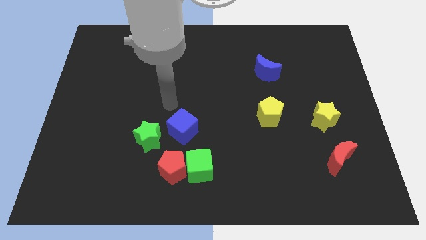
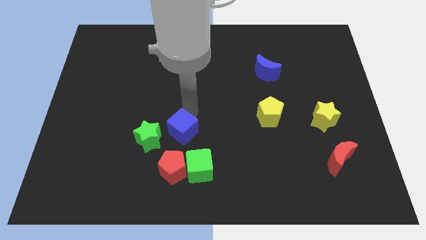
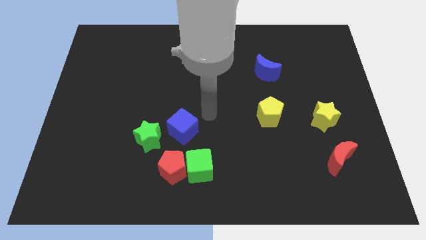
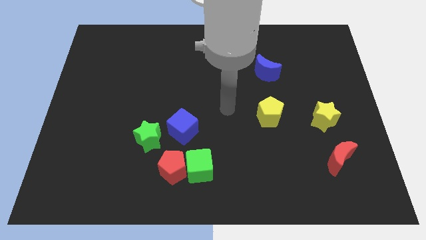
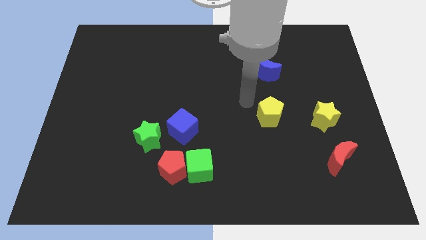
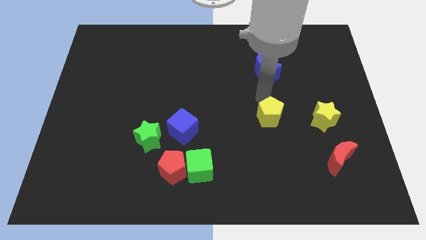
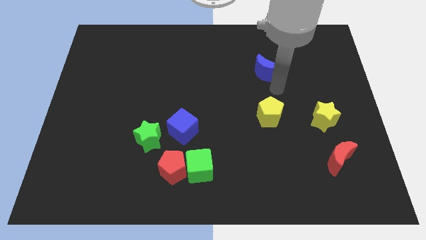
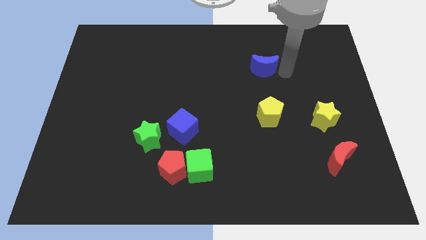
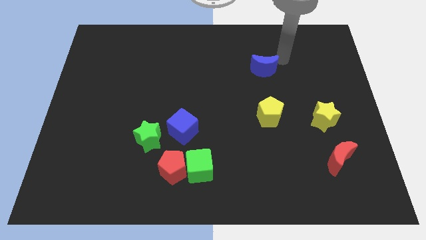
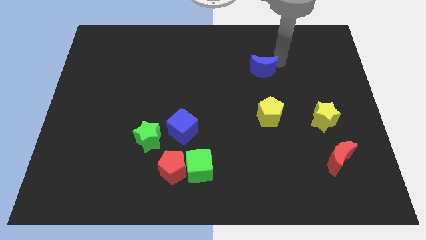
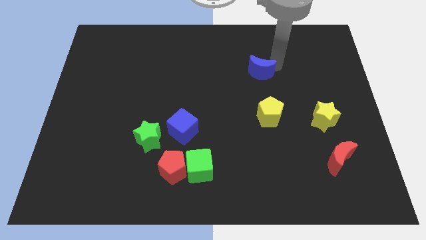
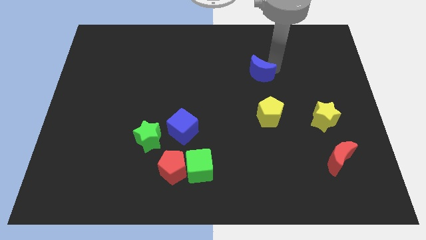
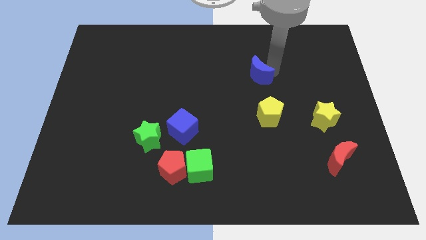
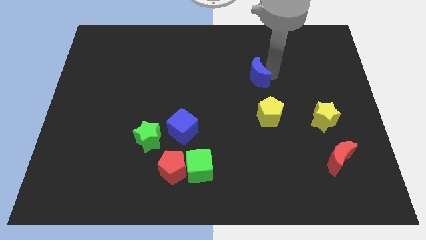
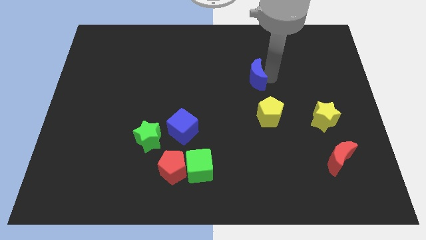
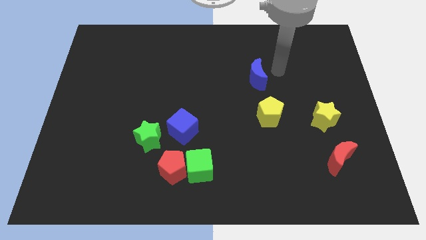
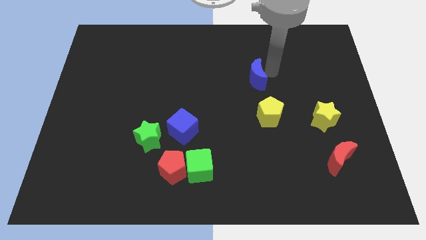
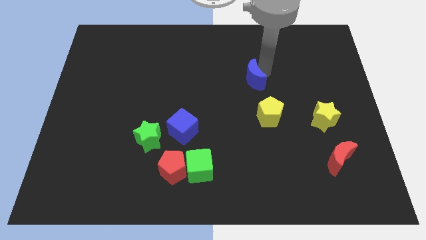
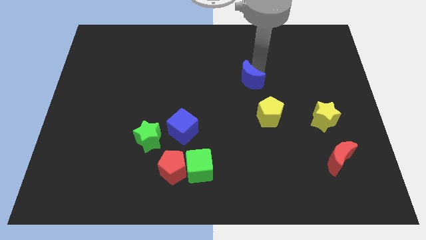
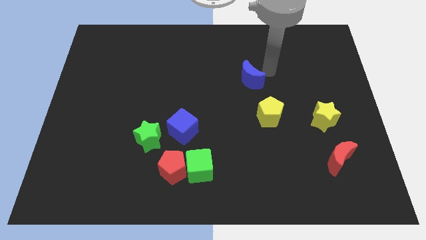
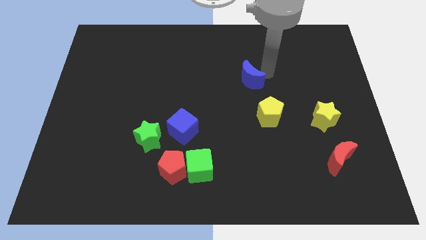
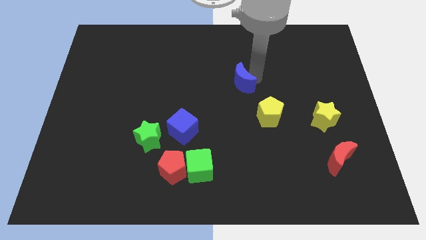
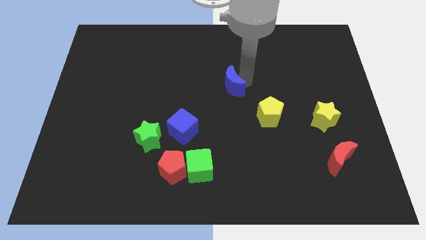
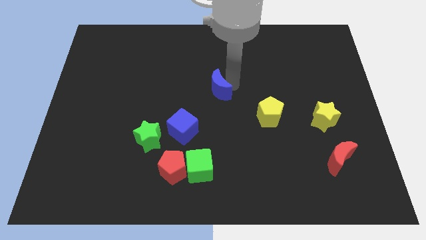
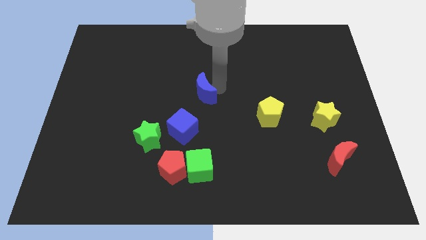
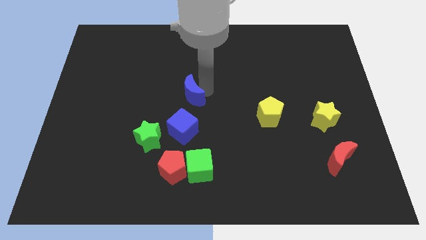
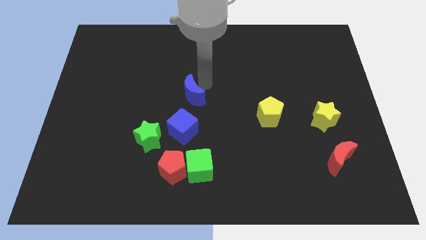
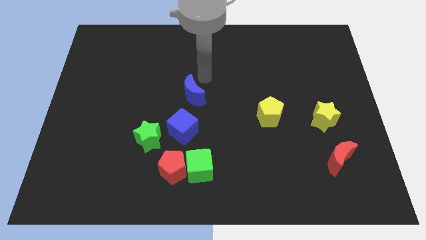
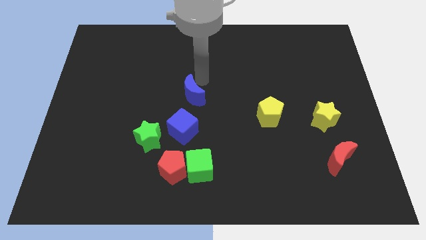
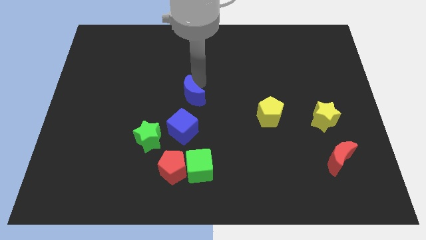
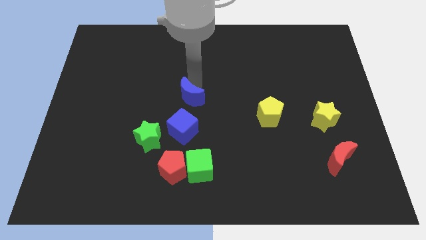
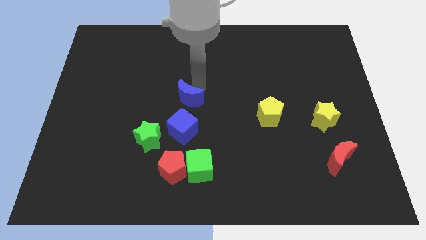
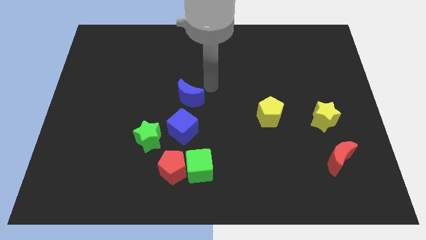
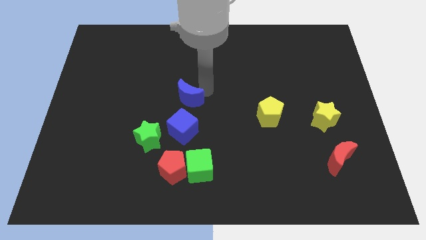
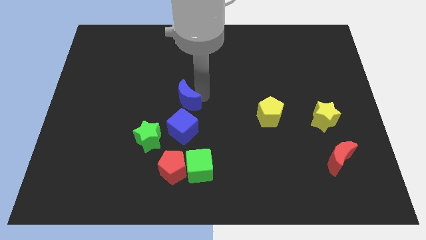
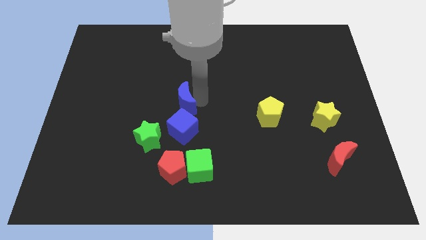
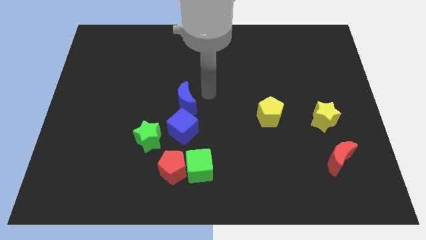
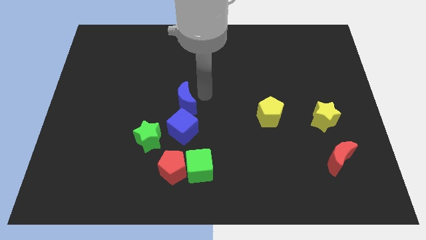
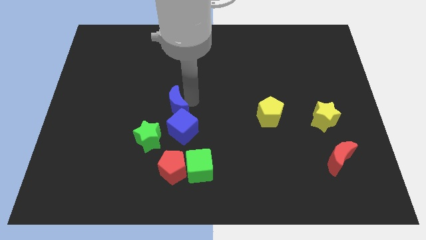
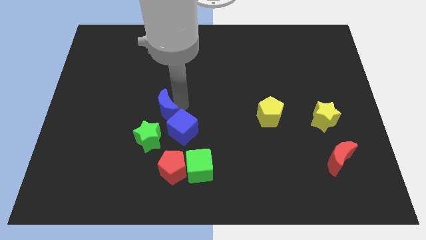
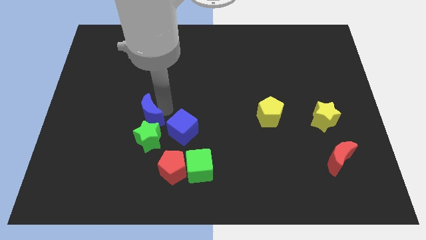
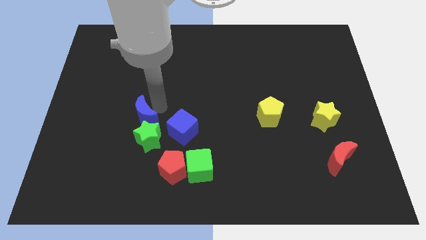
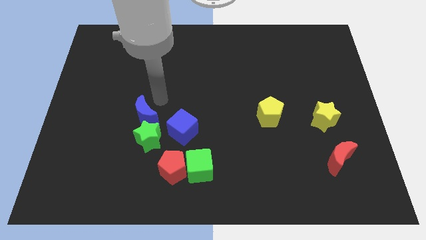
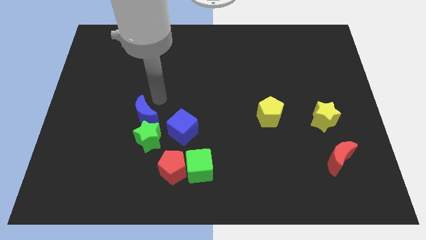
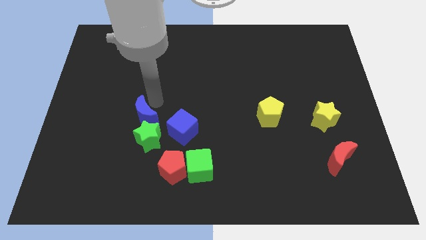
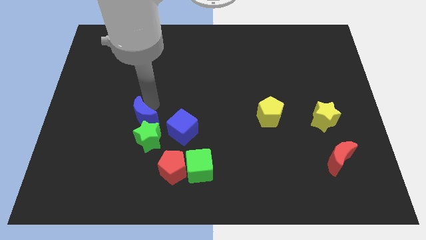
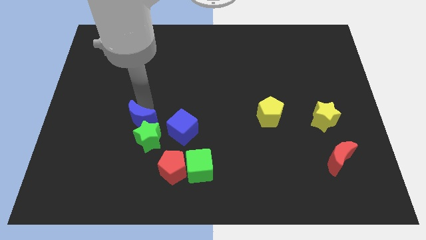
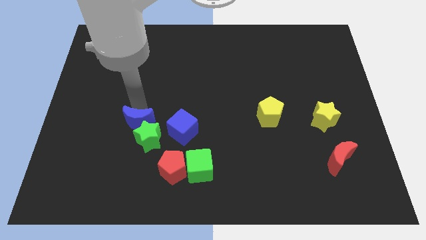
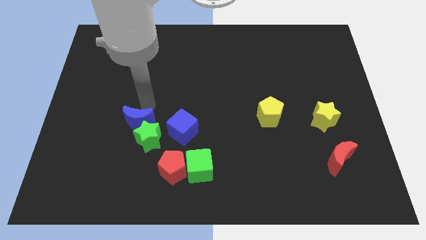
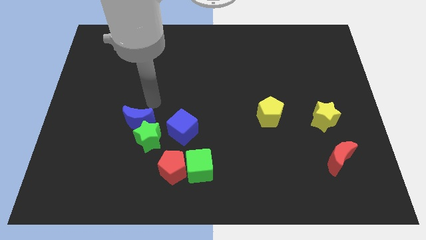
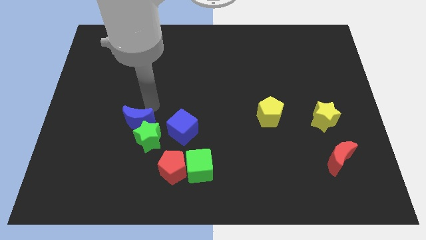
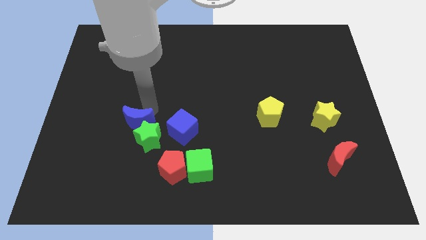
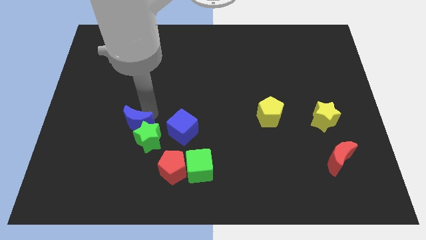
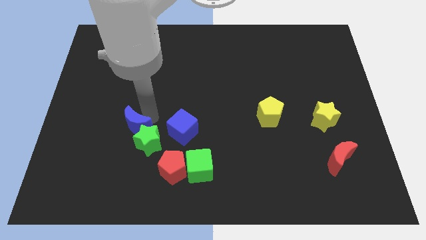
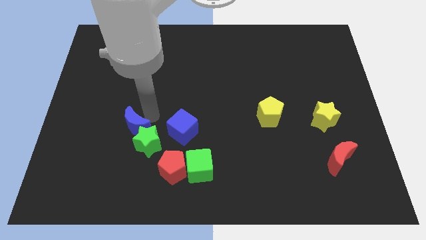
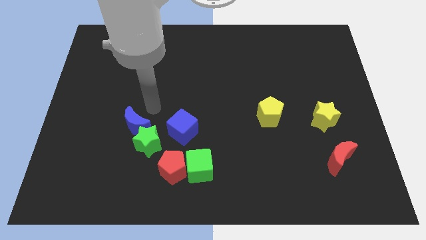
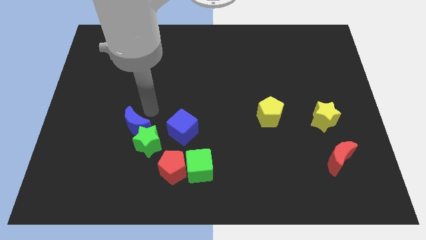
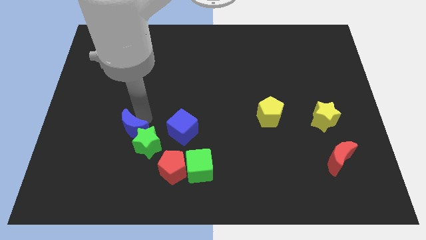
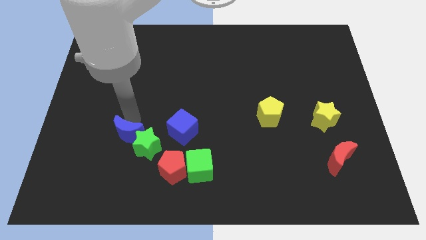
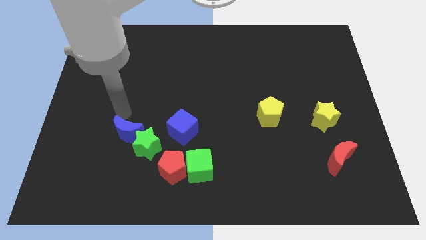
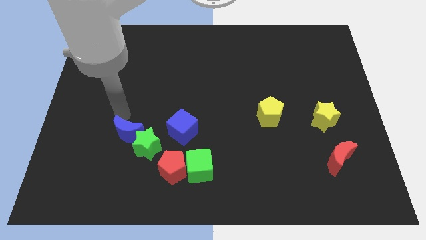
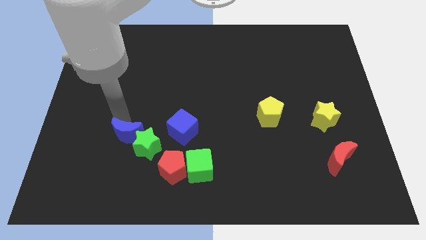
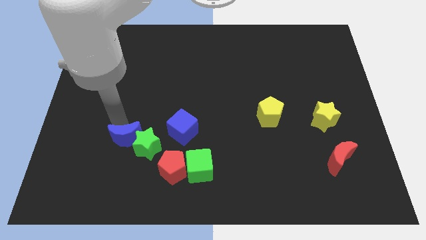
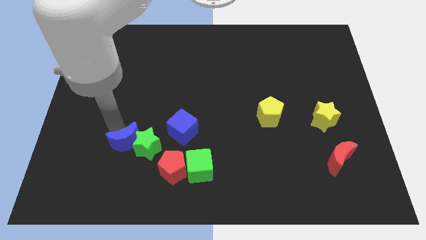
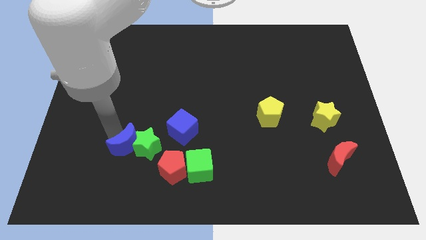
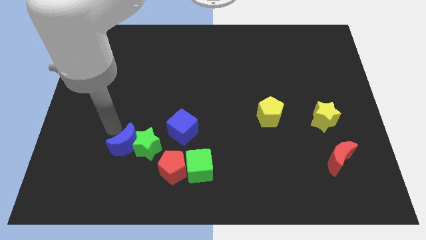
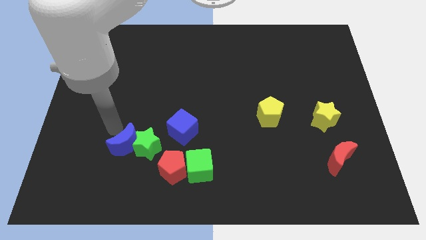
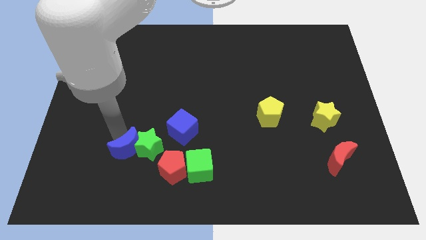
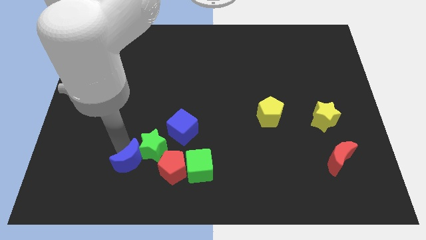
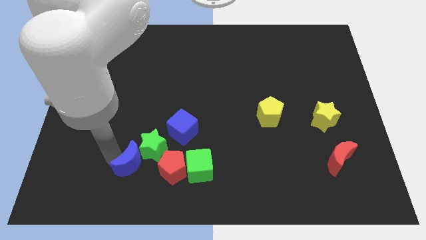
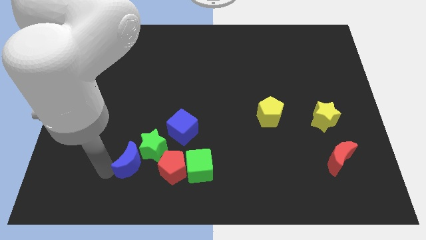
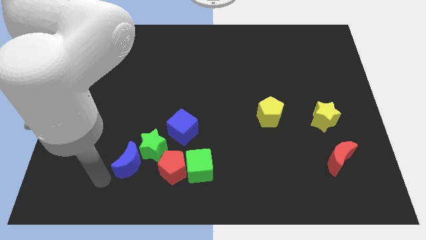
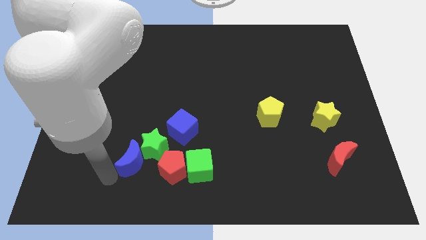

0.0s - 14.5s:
put the blue moon diagonally down and to the left of the blue cube
